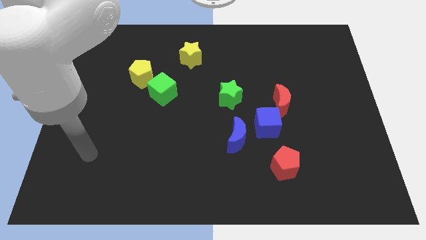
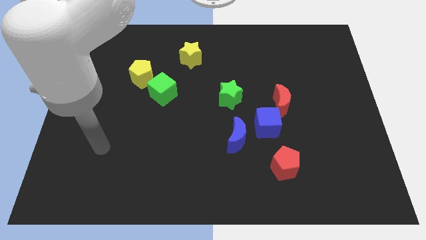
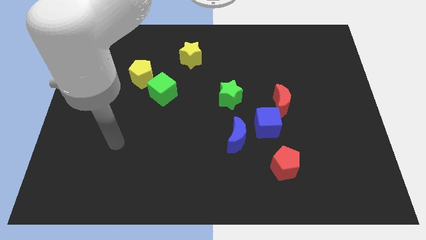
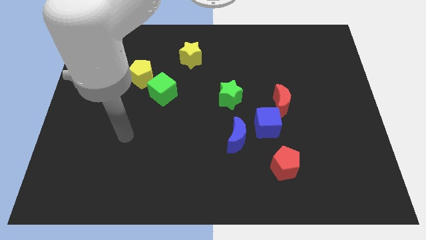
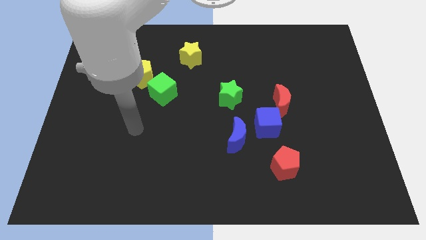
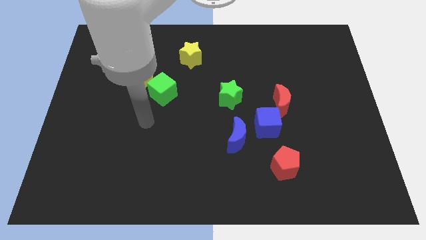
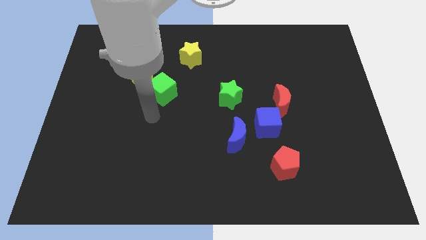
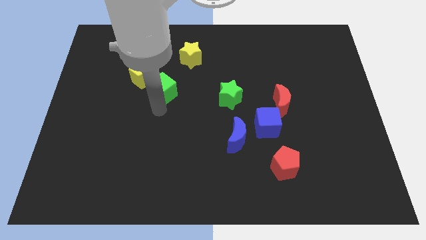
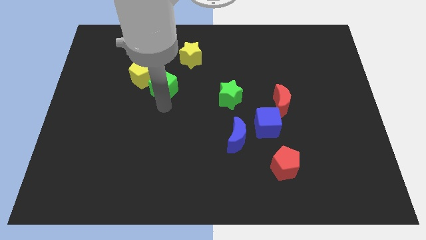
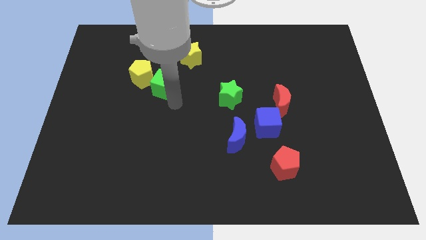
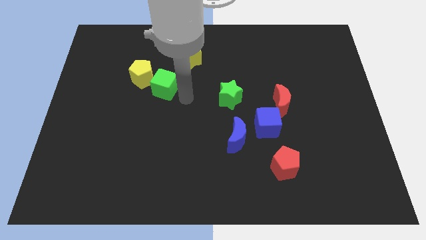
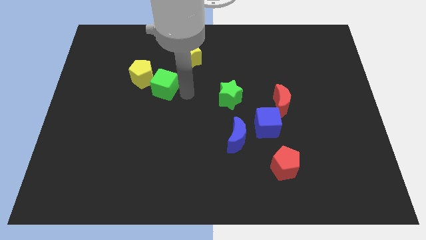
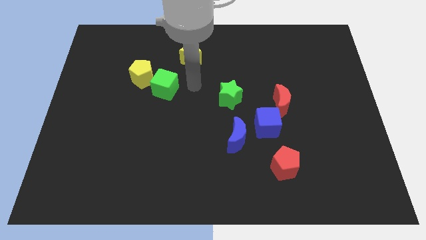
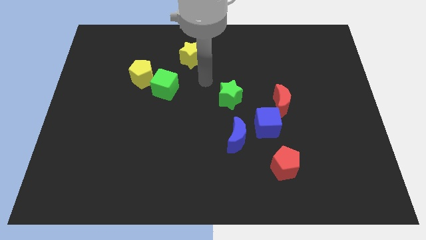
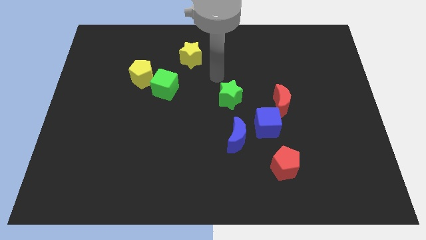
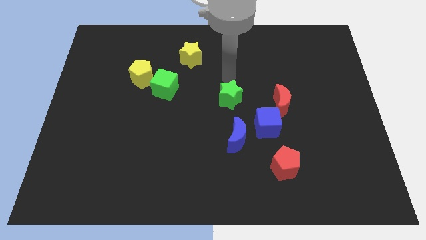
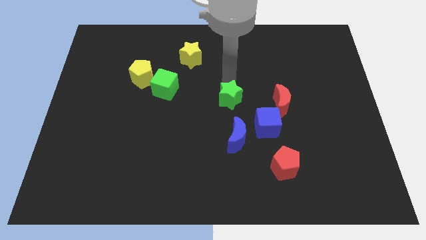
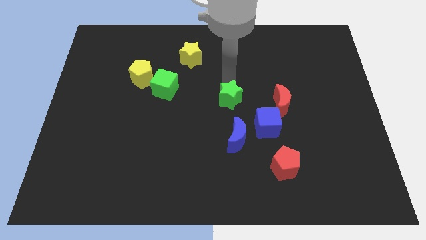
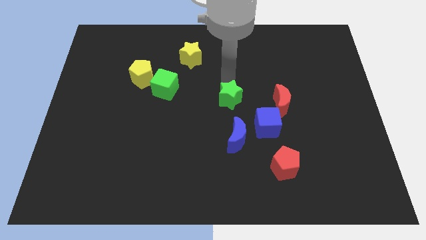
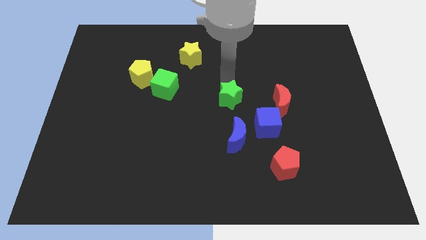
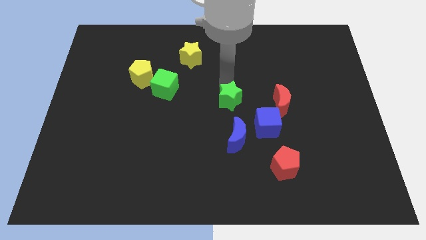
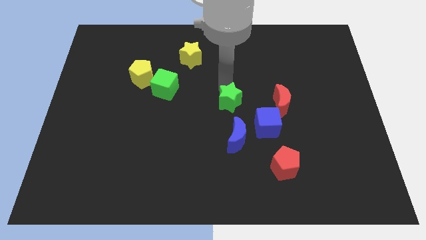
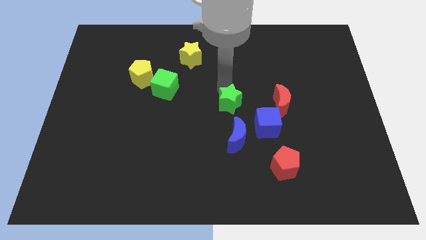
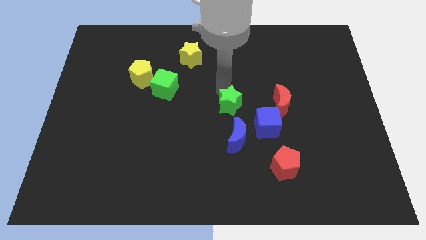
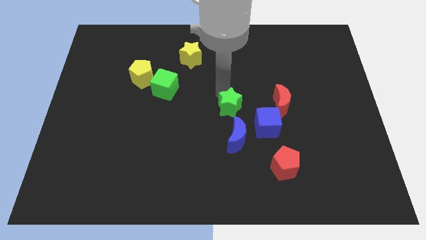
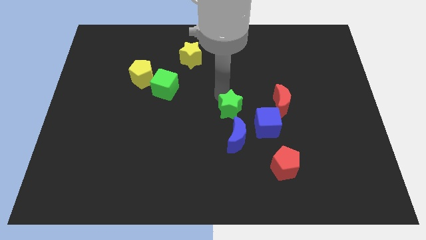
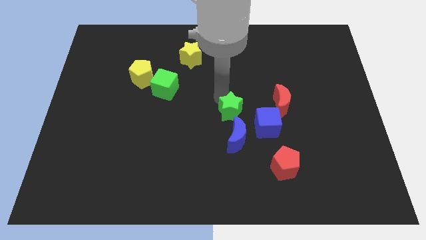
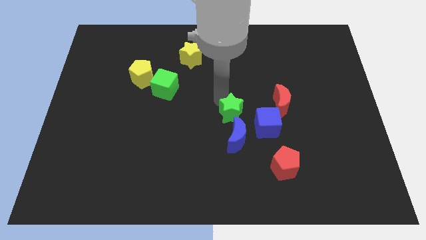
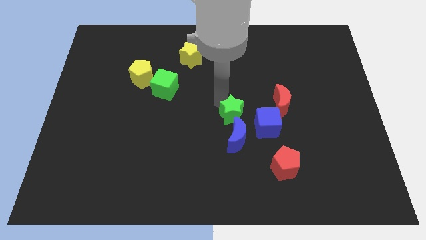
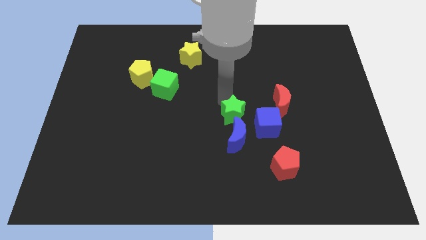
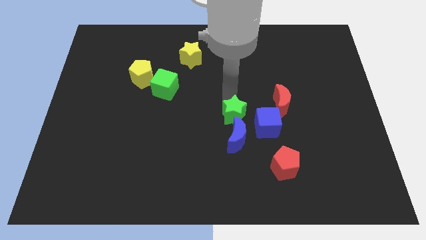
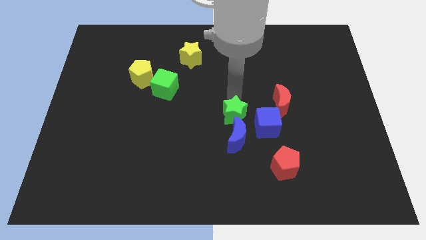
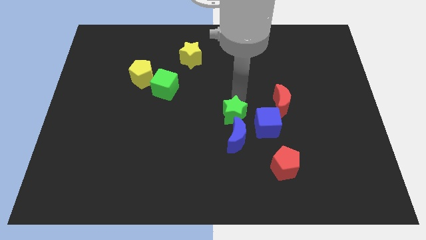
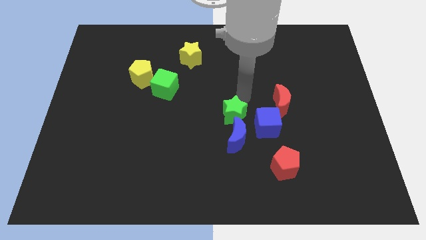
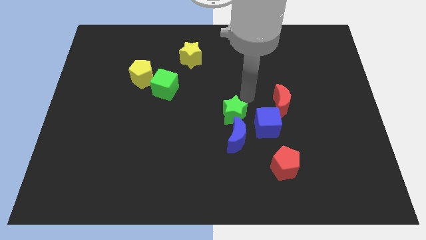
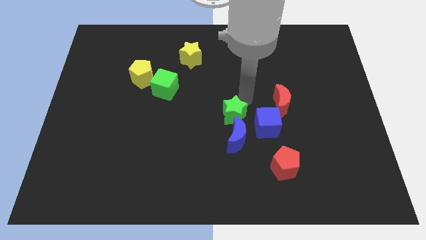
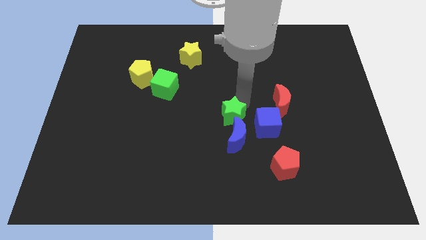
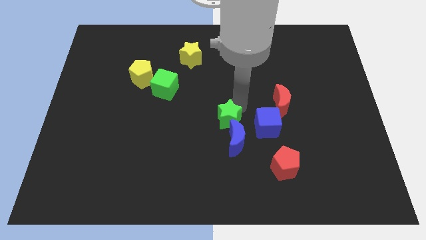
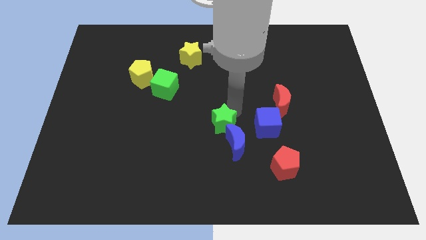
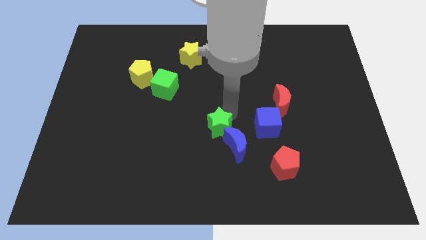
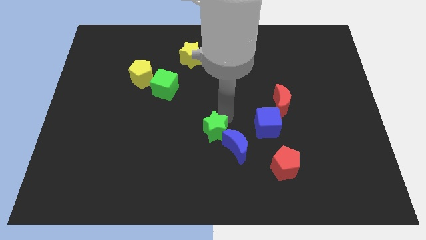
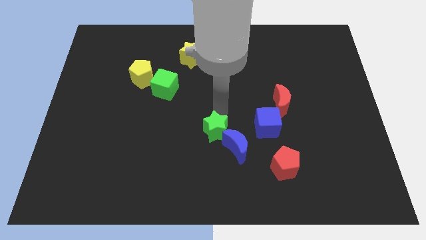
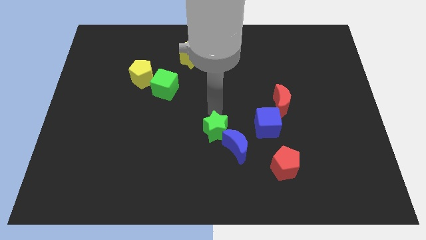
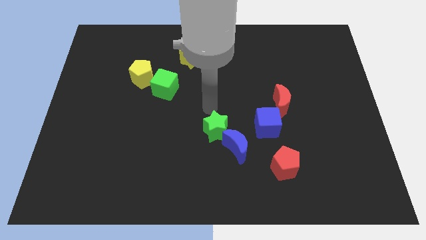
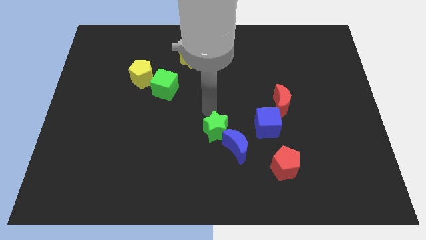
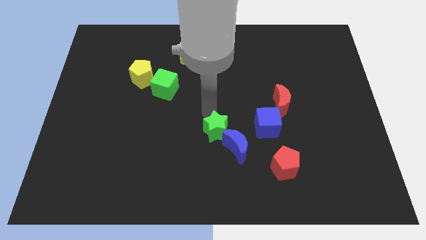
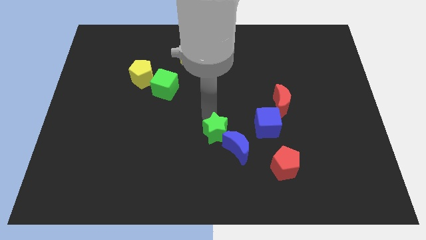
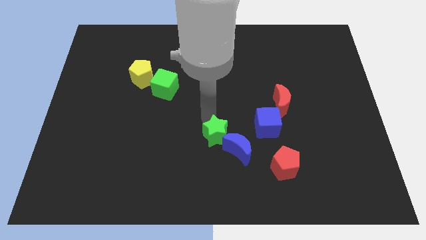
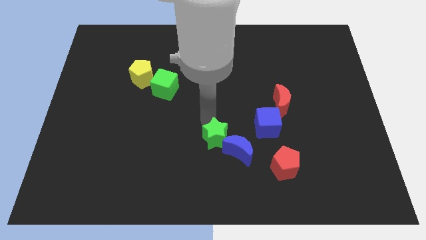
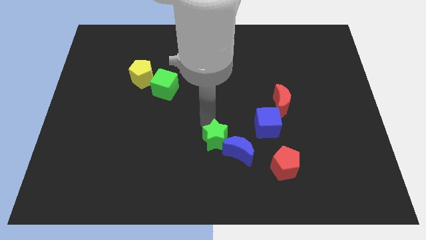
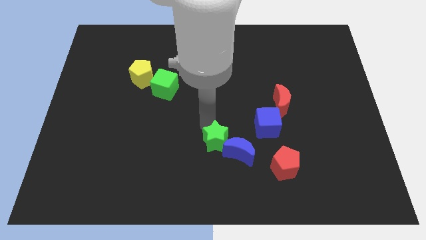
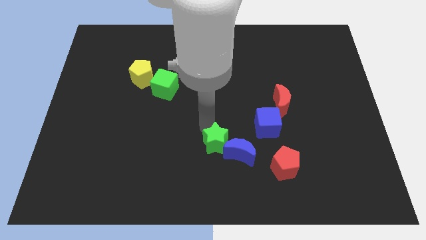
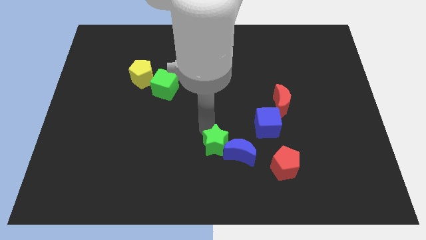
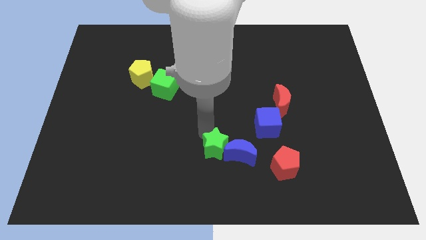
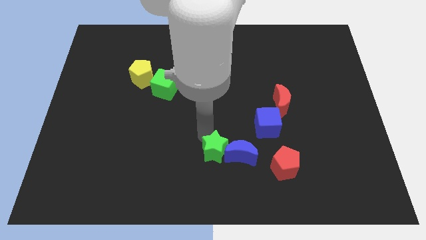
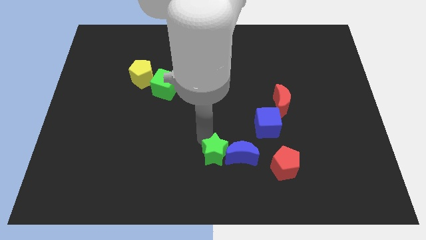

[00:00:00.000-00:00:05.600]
move the green star to the bottom side

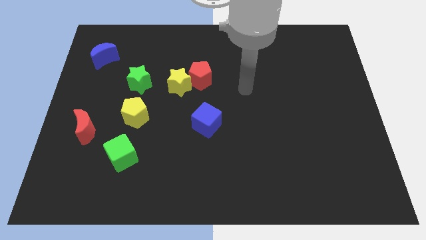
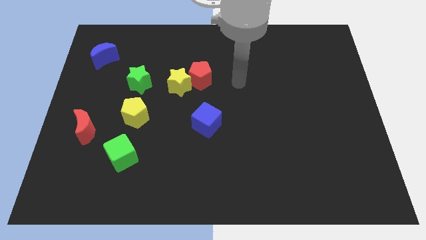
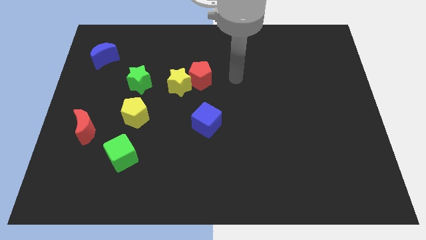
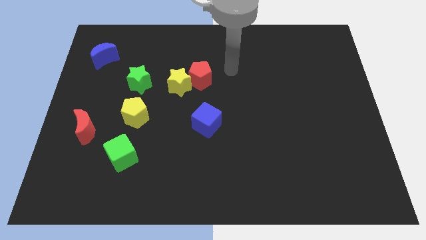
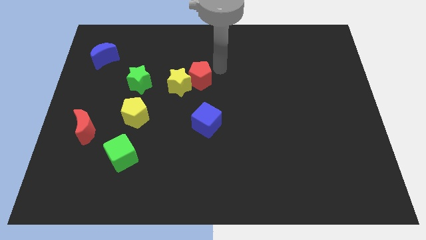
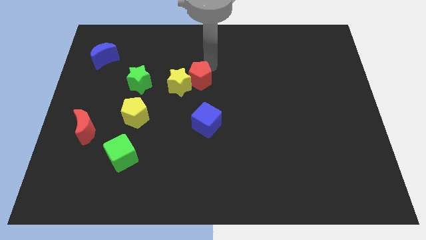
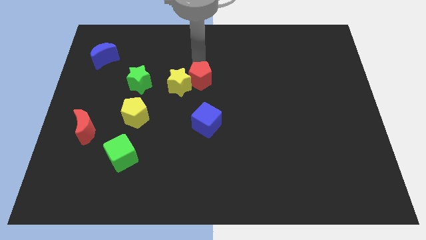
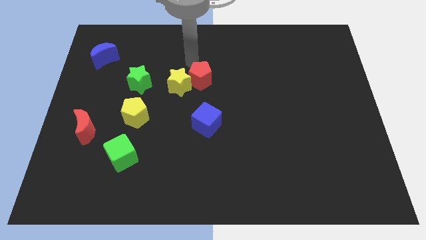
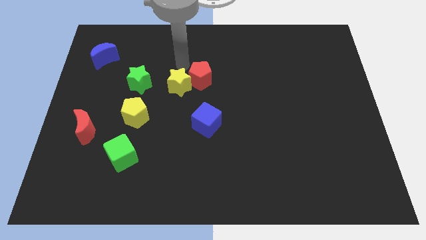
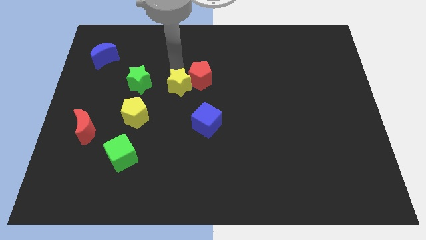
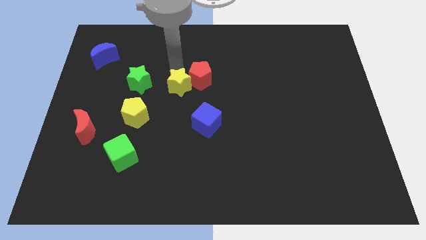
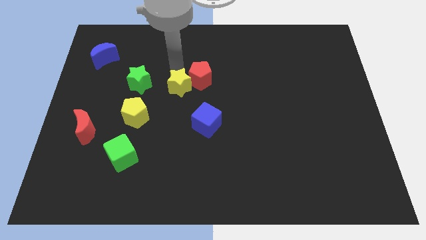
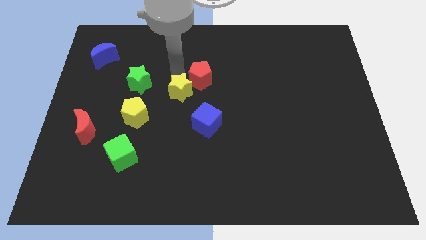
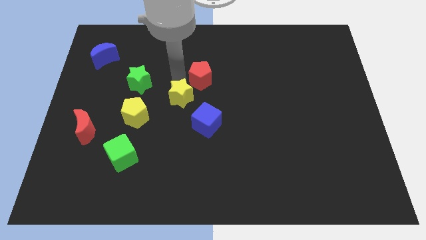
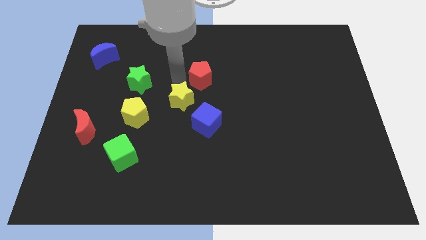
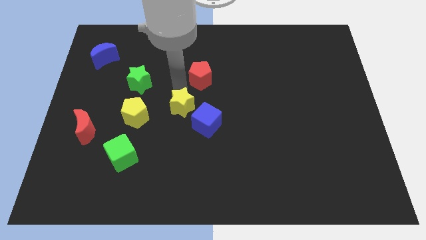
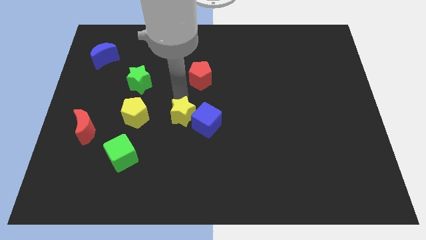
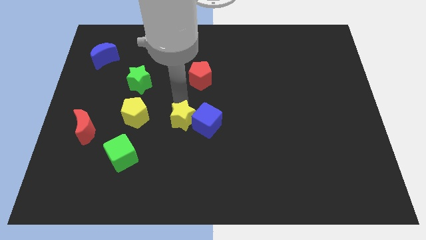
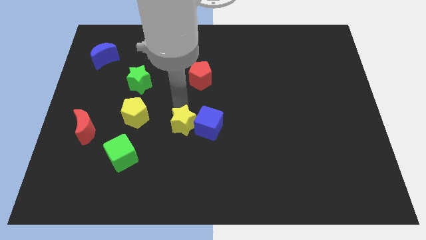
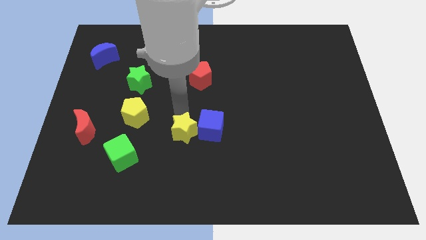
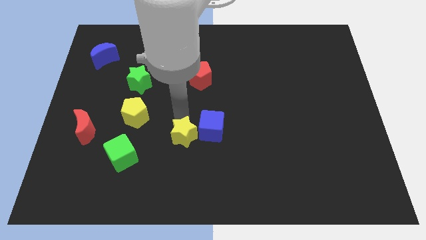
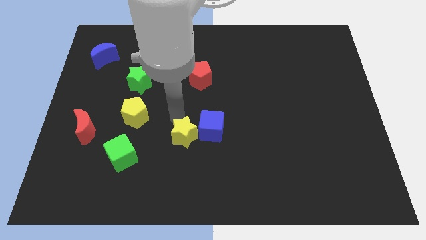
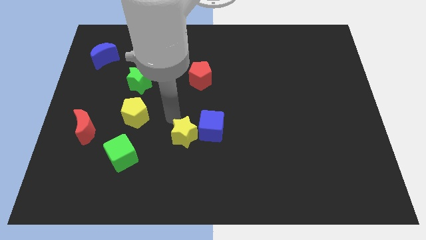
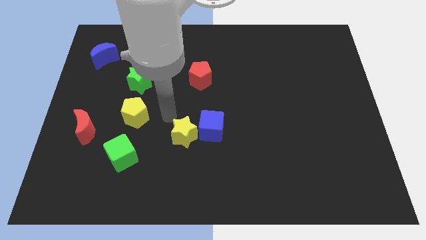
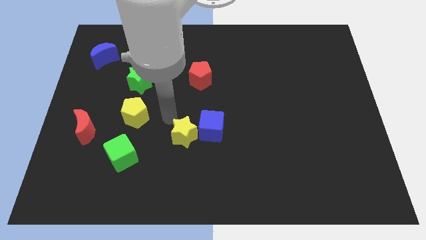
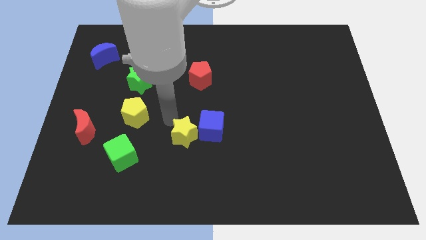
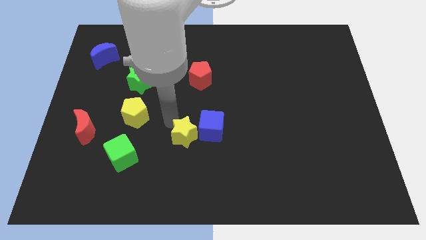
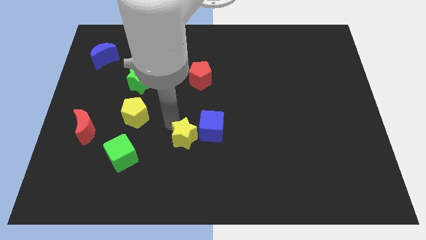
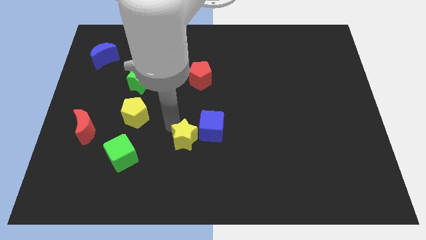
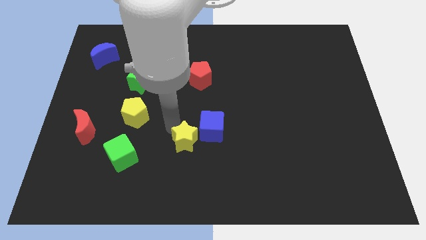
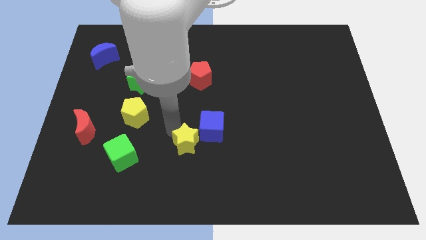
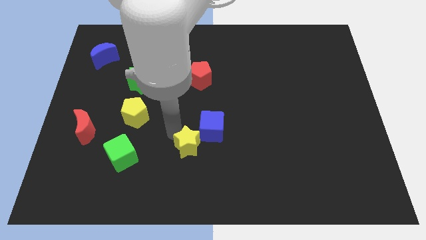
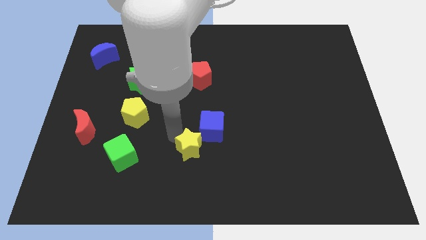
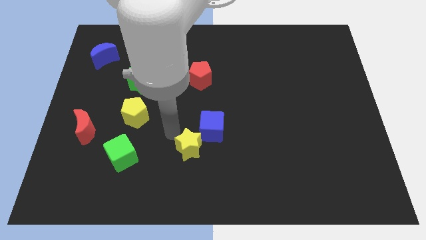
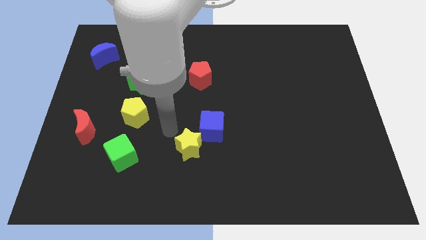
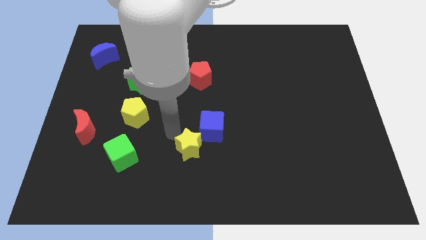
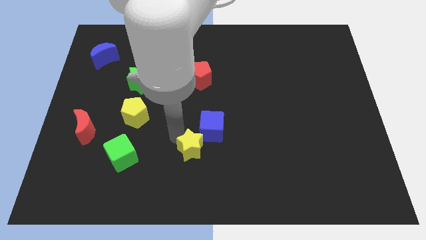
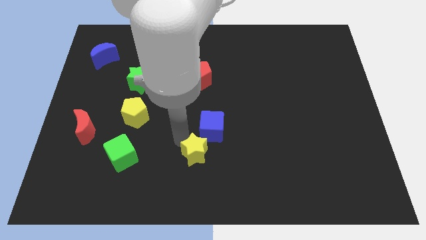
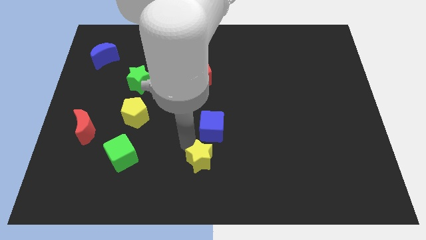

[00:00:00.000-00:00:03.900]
slide the yellow star to the bottom side
